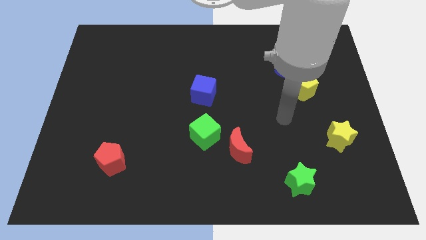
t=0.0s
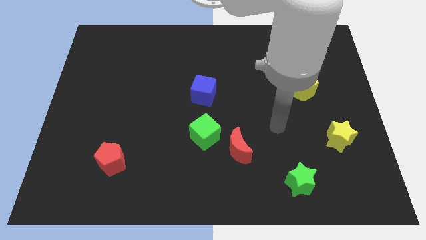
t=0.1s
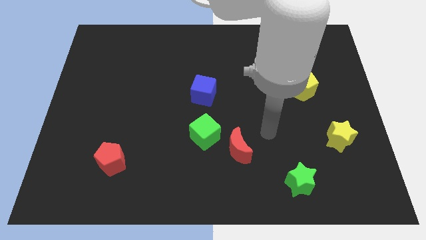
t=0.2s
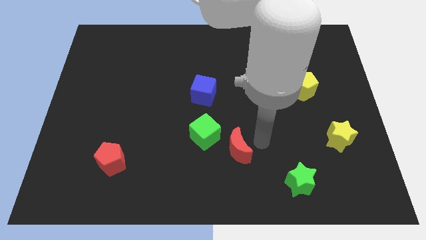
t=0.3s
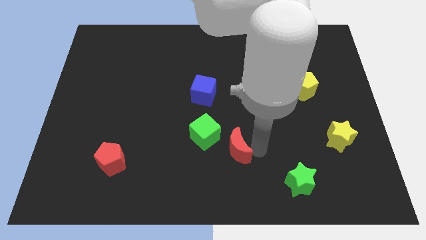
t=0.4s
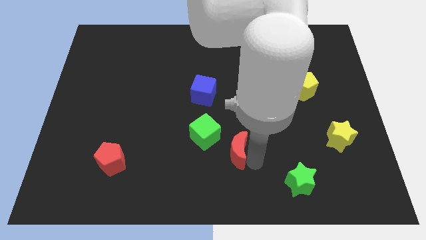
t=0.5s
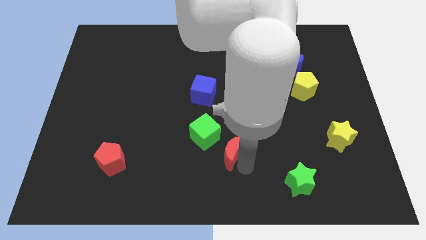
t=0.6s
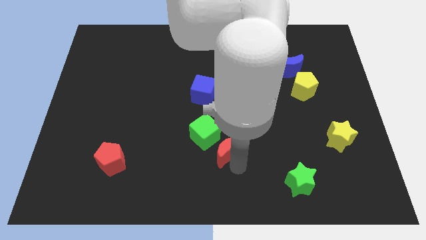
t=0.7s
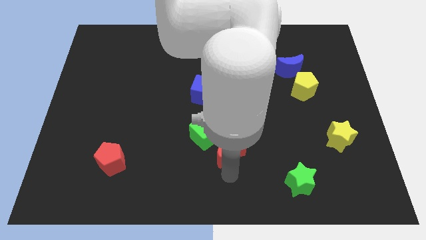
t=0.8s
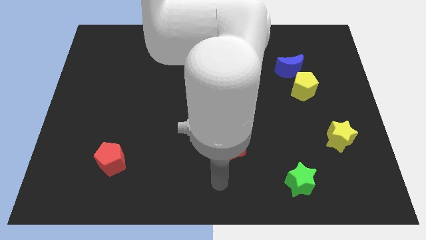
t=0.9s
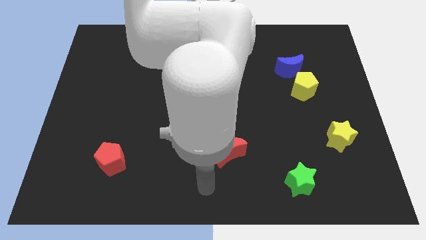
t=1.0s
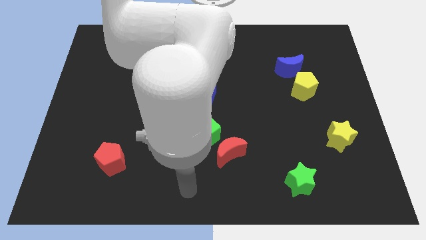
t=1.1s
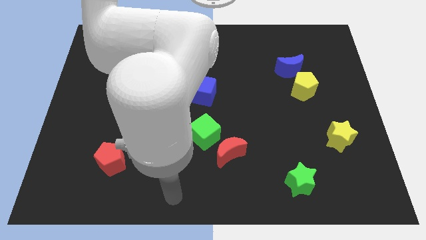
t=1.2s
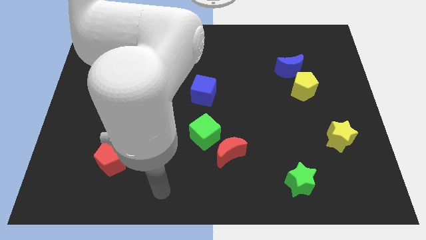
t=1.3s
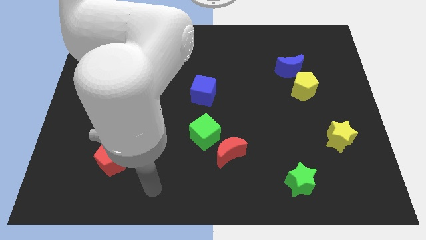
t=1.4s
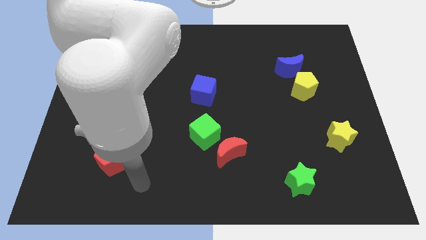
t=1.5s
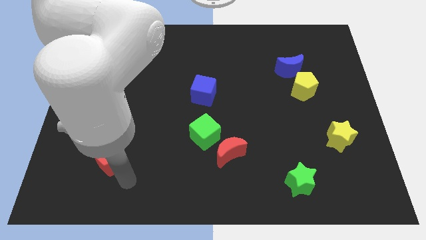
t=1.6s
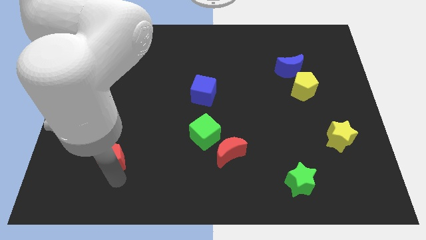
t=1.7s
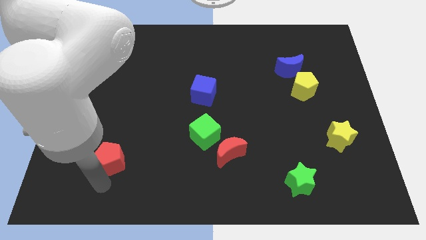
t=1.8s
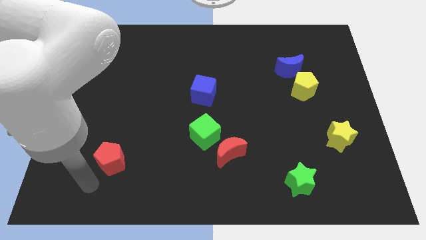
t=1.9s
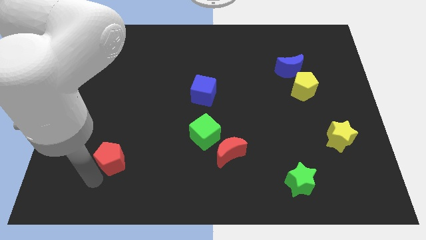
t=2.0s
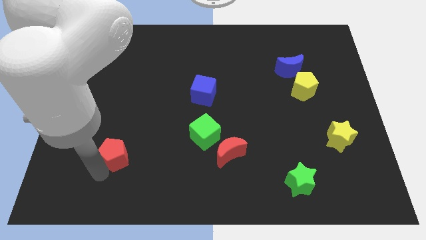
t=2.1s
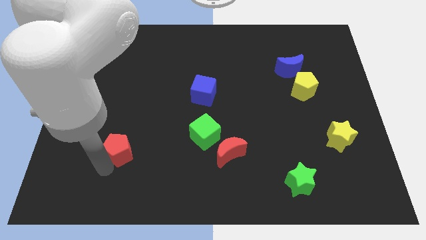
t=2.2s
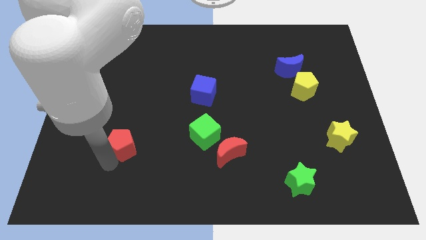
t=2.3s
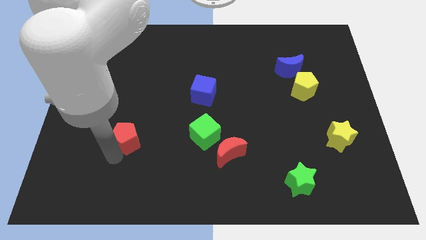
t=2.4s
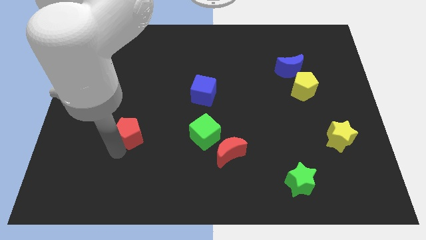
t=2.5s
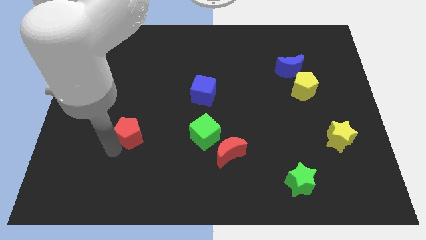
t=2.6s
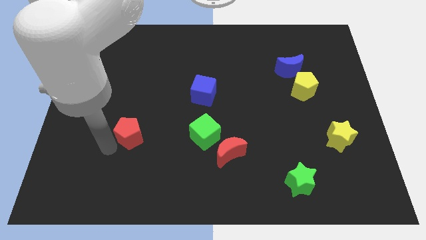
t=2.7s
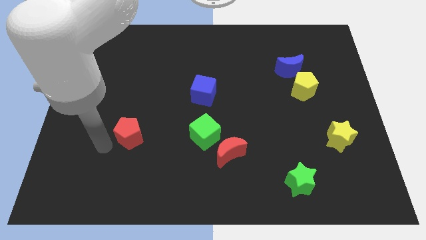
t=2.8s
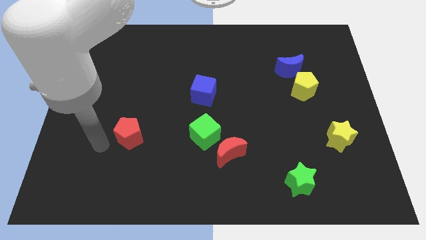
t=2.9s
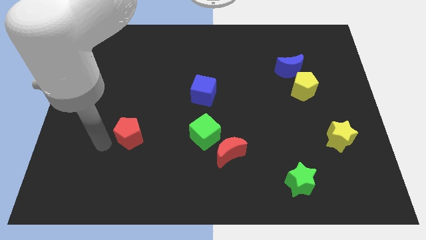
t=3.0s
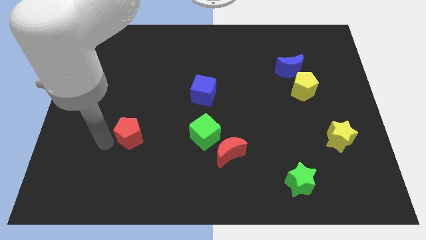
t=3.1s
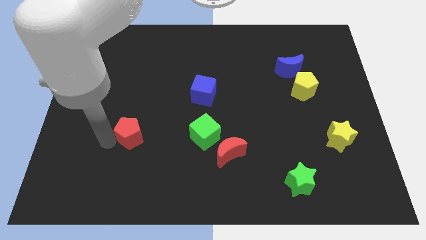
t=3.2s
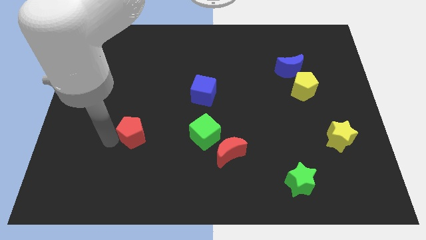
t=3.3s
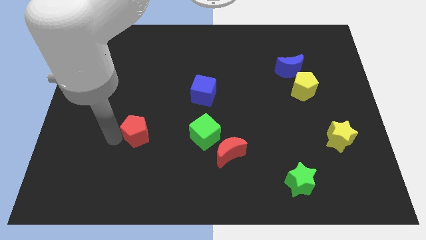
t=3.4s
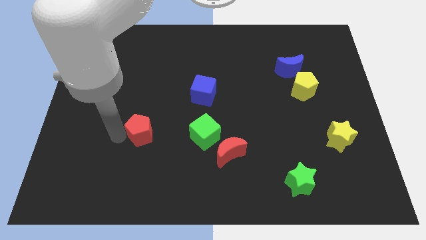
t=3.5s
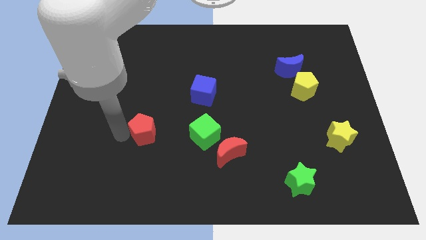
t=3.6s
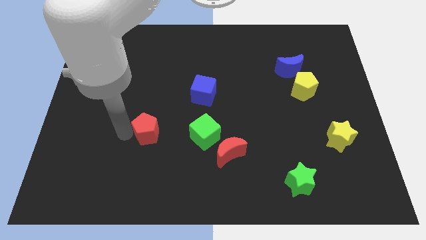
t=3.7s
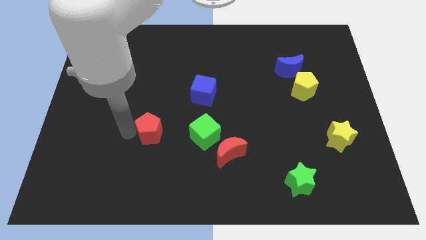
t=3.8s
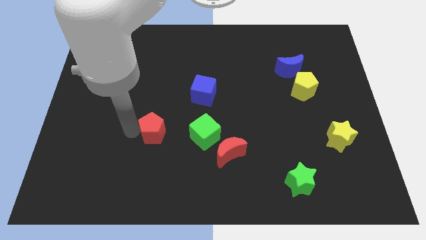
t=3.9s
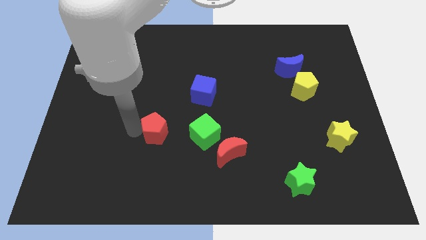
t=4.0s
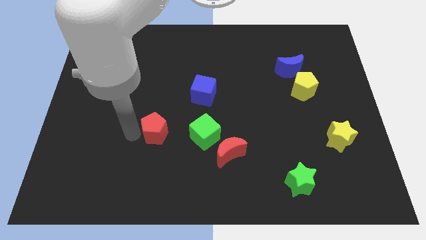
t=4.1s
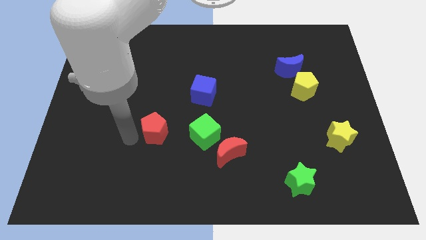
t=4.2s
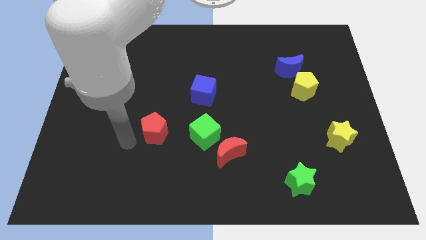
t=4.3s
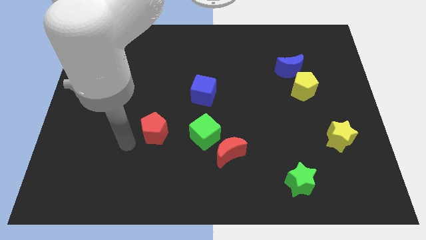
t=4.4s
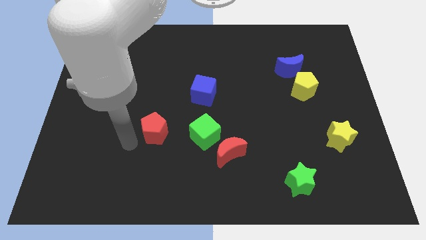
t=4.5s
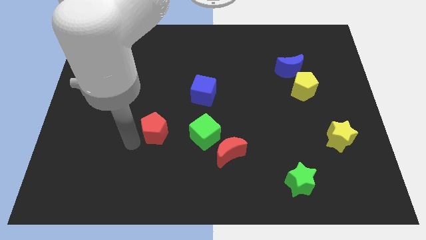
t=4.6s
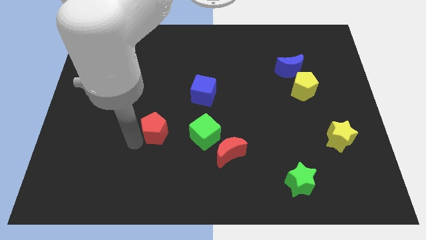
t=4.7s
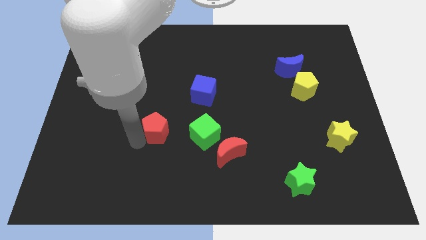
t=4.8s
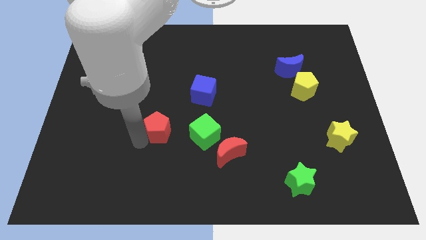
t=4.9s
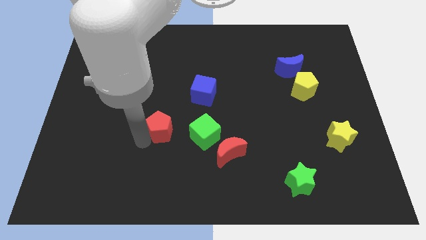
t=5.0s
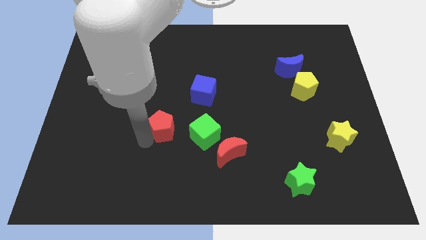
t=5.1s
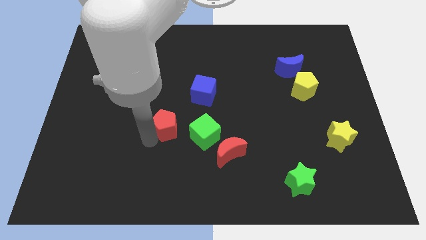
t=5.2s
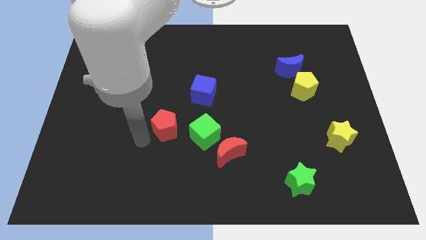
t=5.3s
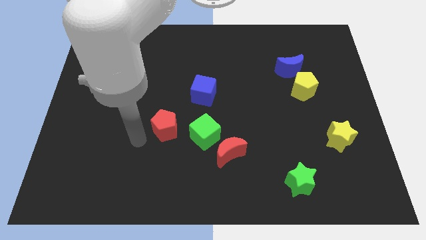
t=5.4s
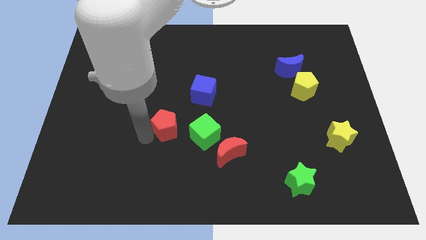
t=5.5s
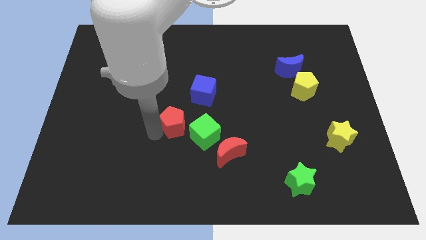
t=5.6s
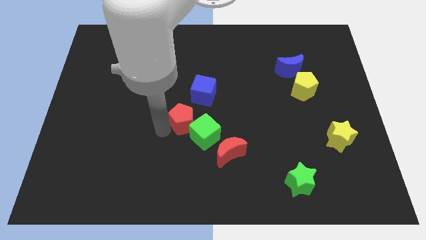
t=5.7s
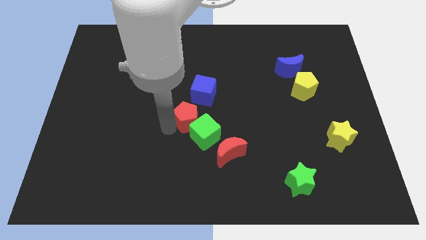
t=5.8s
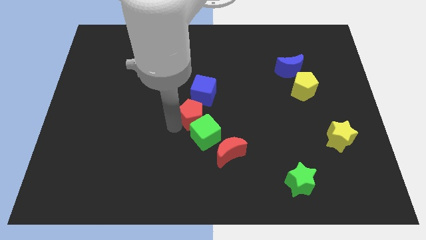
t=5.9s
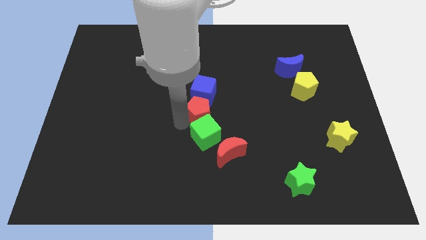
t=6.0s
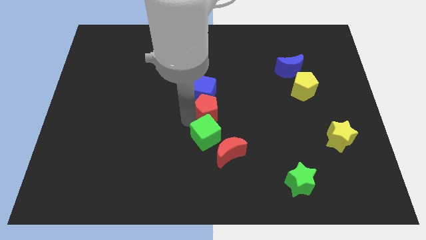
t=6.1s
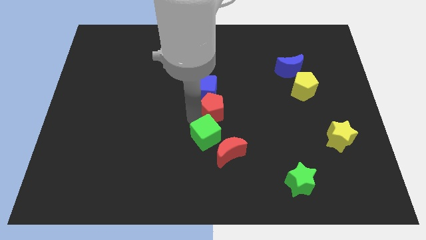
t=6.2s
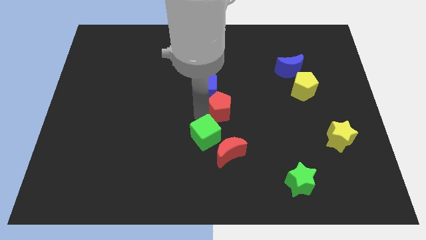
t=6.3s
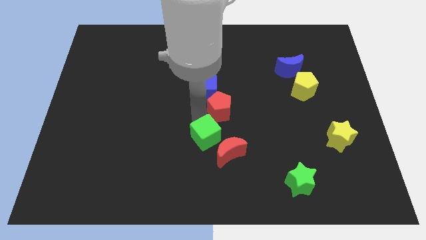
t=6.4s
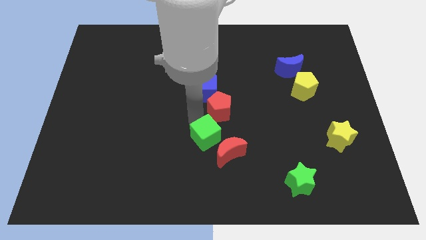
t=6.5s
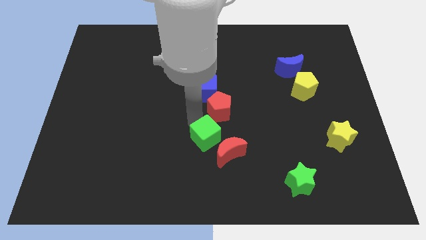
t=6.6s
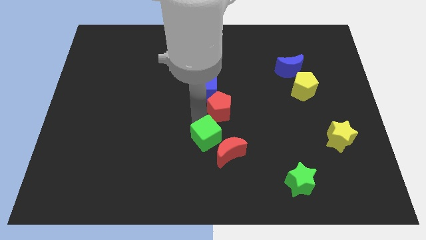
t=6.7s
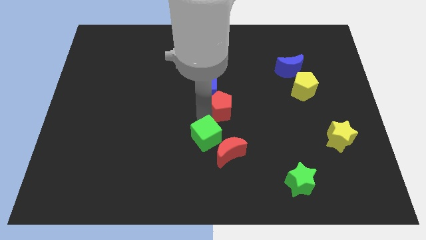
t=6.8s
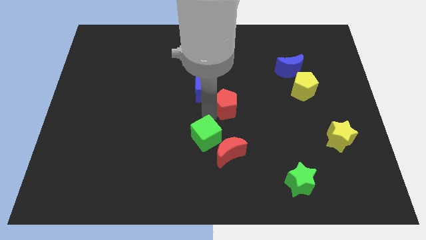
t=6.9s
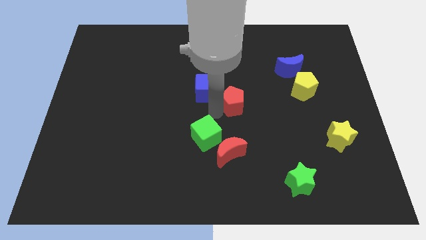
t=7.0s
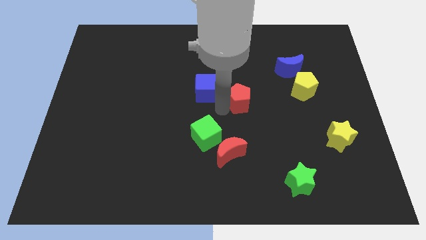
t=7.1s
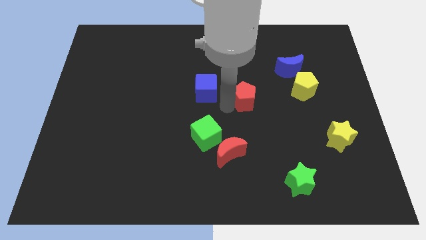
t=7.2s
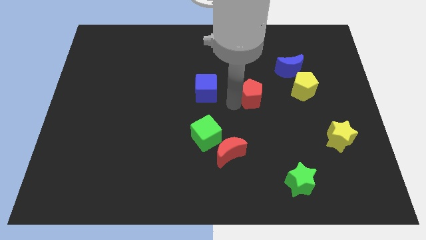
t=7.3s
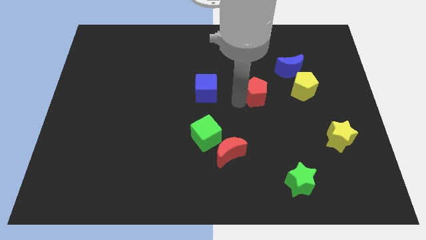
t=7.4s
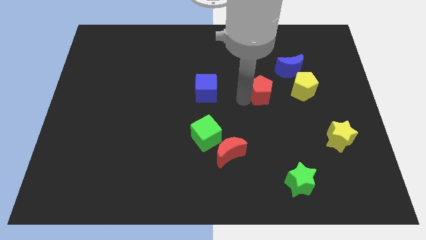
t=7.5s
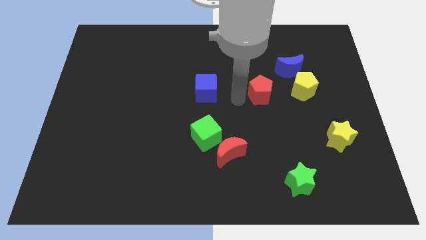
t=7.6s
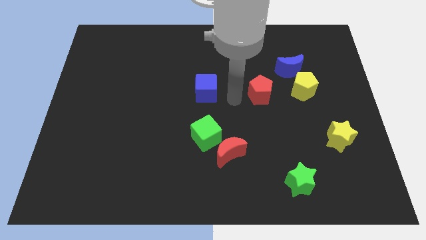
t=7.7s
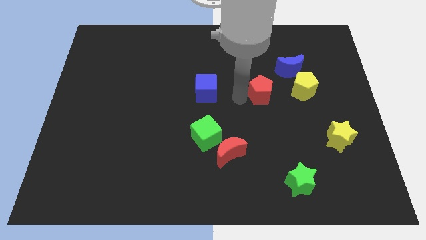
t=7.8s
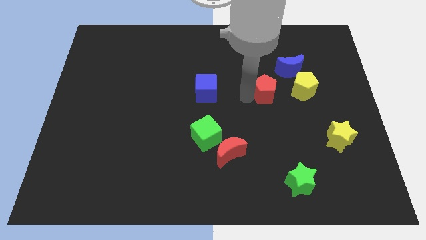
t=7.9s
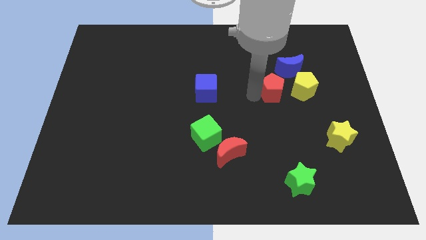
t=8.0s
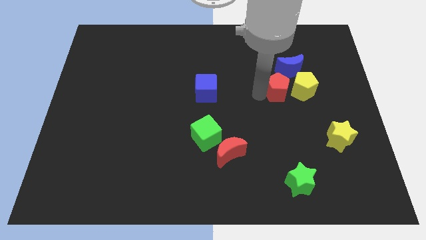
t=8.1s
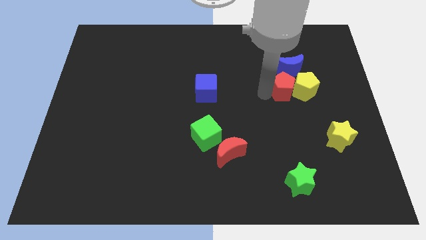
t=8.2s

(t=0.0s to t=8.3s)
move the red pentagon towards the yellow pentagon
